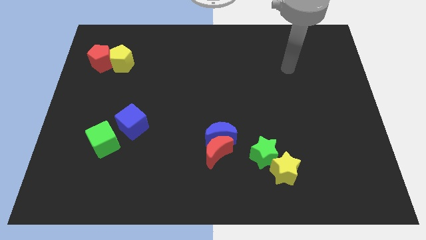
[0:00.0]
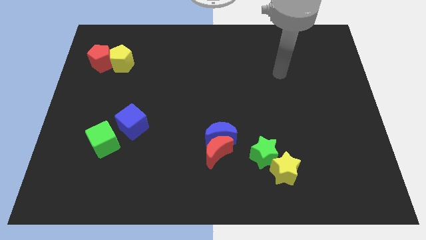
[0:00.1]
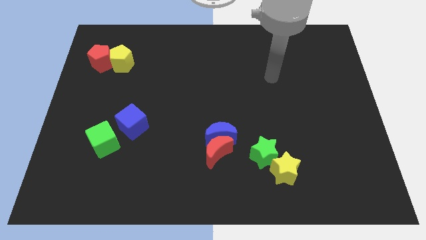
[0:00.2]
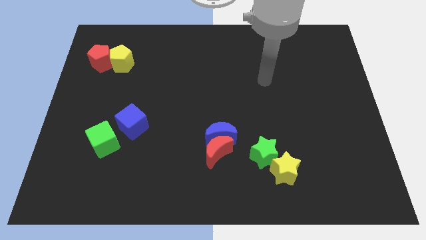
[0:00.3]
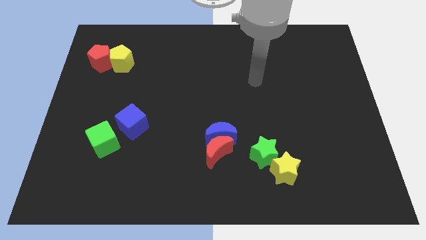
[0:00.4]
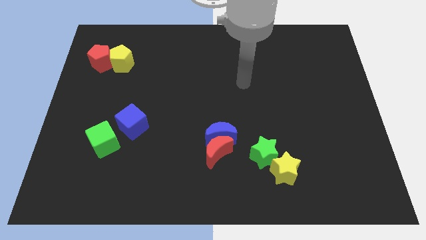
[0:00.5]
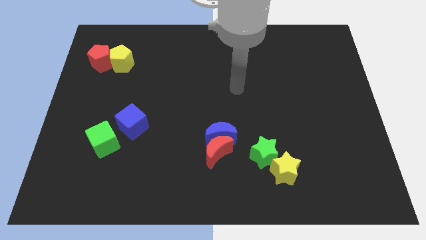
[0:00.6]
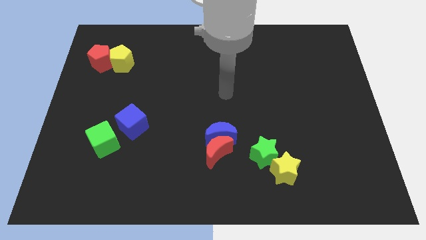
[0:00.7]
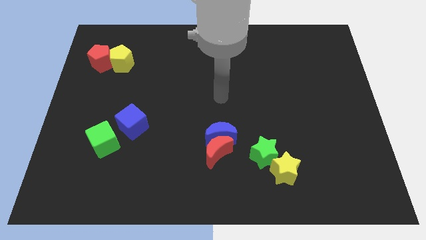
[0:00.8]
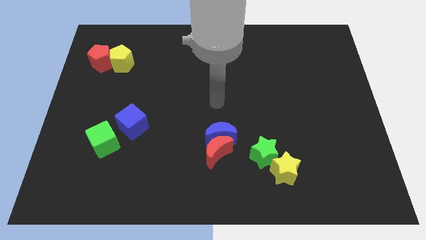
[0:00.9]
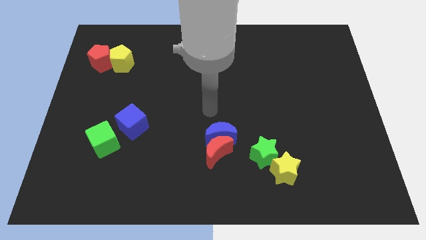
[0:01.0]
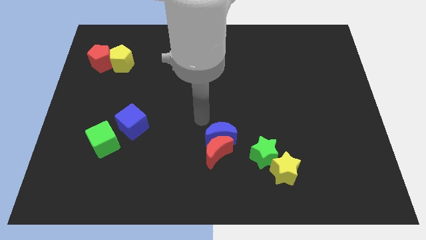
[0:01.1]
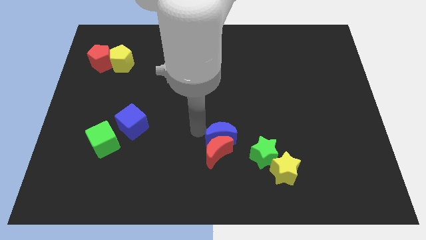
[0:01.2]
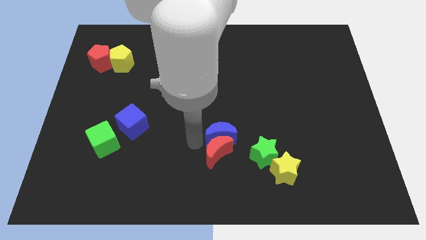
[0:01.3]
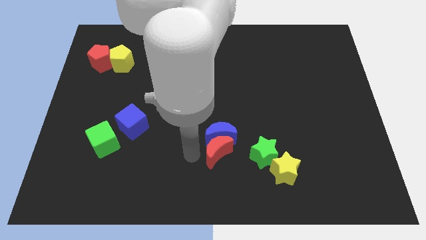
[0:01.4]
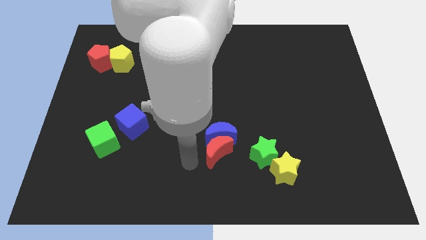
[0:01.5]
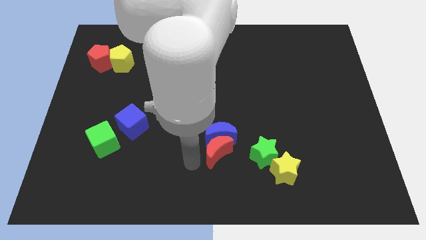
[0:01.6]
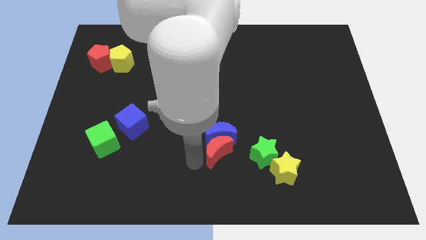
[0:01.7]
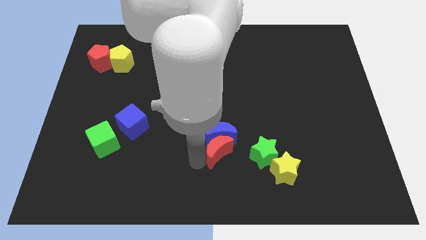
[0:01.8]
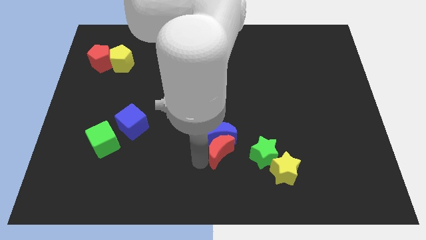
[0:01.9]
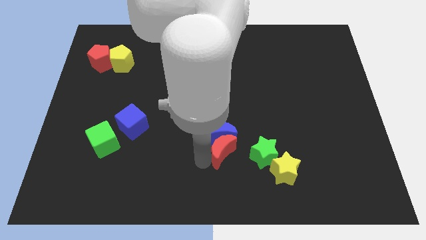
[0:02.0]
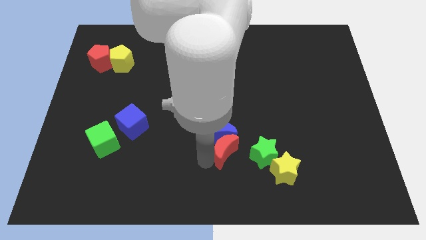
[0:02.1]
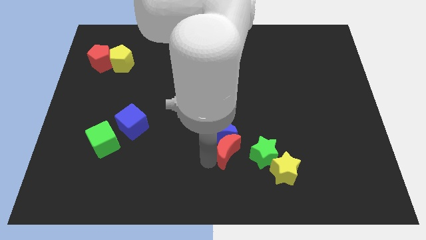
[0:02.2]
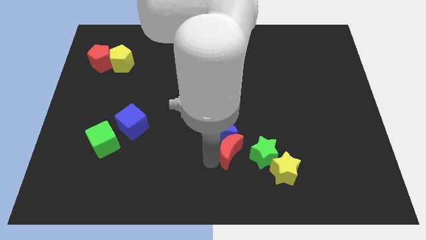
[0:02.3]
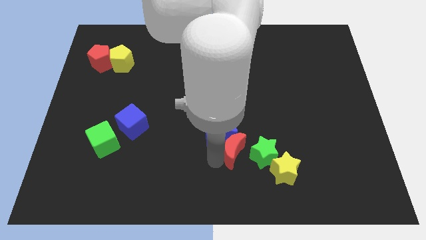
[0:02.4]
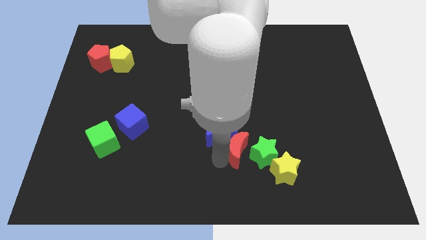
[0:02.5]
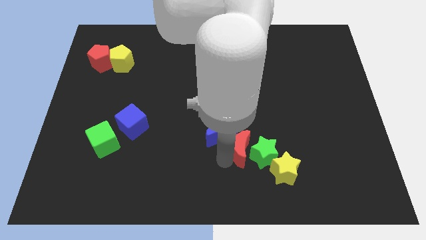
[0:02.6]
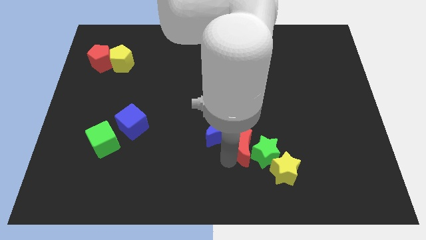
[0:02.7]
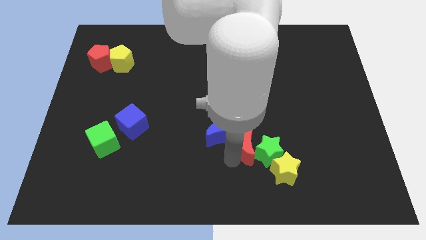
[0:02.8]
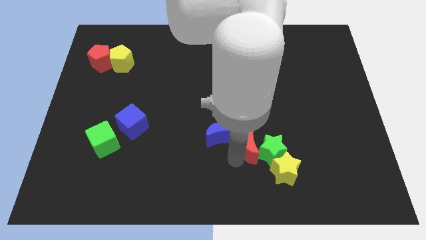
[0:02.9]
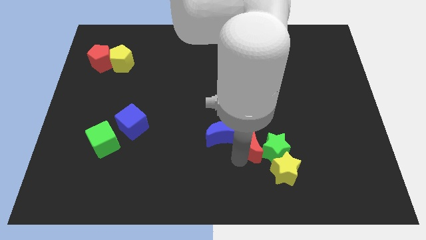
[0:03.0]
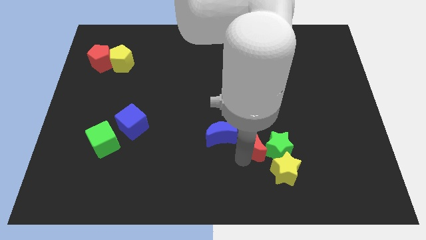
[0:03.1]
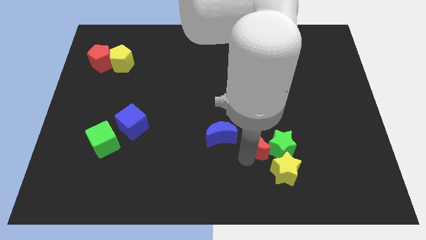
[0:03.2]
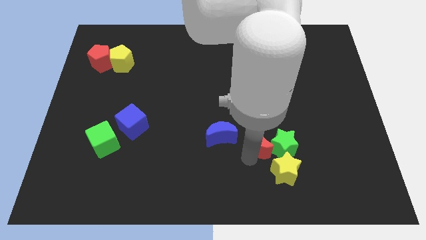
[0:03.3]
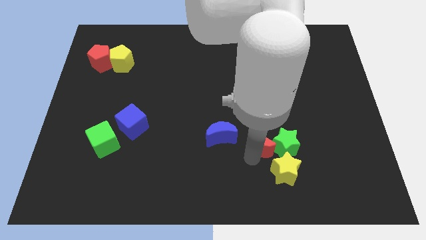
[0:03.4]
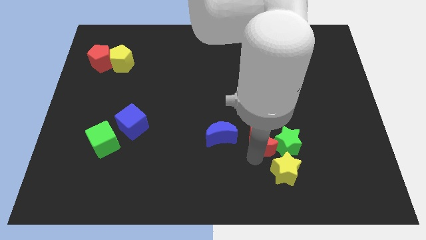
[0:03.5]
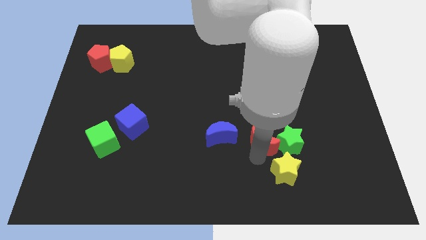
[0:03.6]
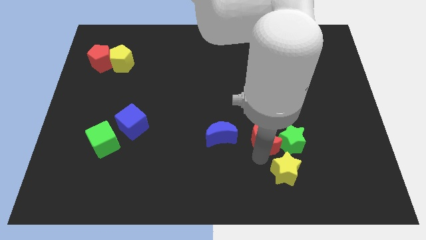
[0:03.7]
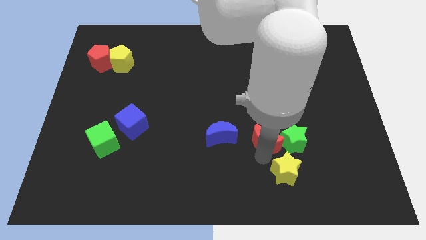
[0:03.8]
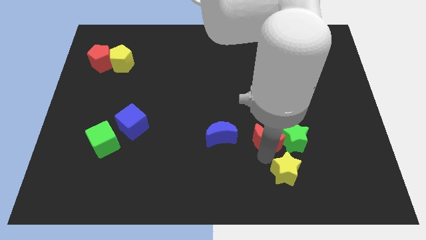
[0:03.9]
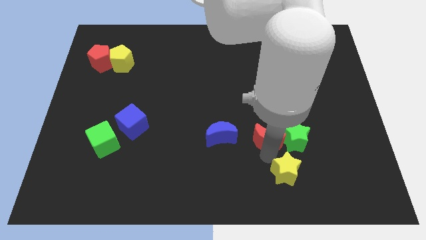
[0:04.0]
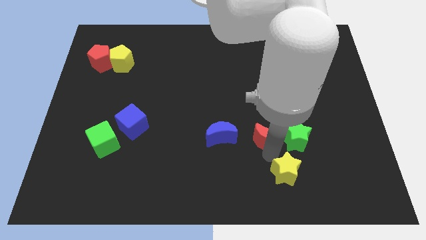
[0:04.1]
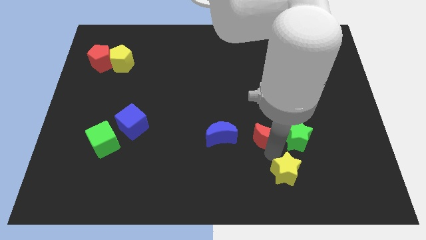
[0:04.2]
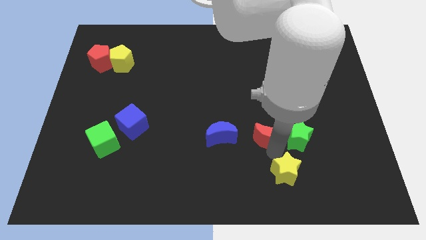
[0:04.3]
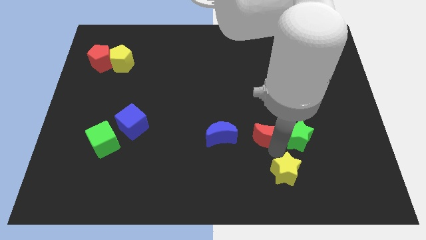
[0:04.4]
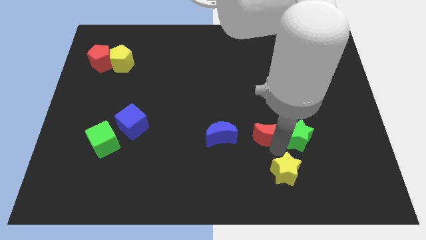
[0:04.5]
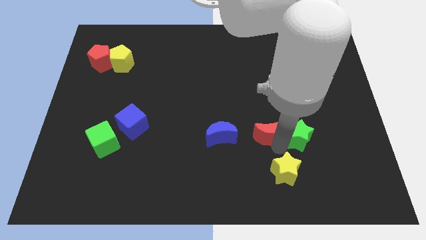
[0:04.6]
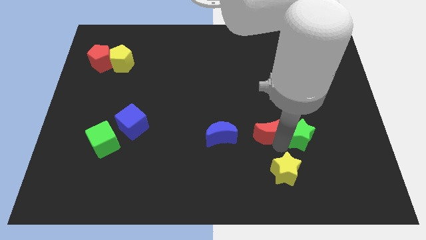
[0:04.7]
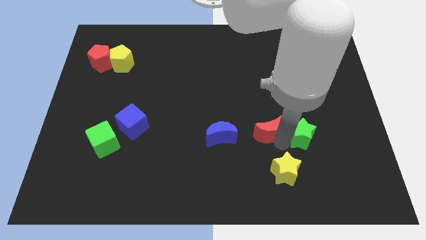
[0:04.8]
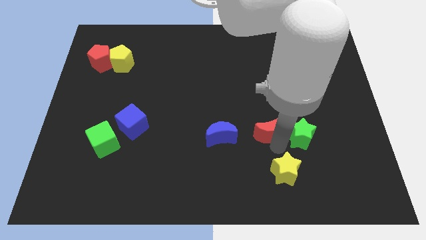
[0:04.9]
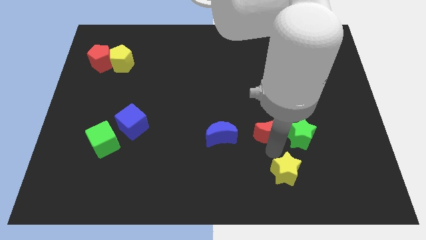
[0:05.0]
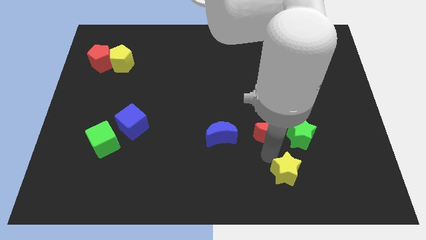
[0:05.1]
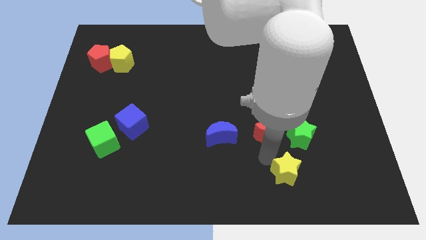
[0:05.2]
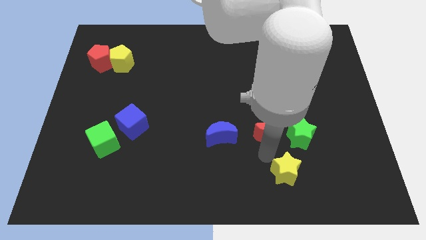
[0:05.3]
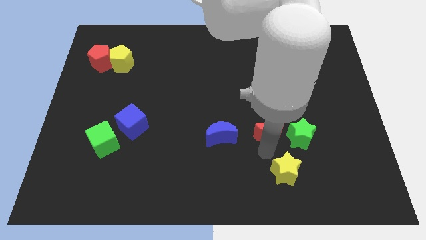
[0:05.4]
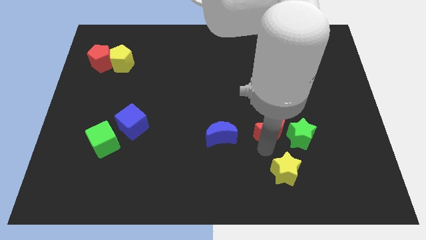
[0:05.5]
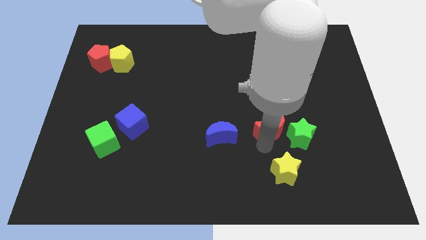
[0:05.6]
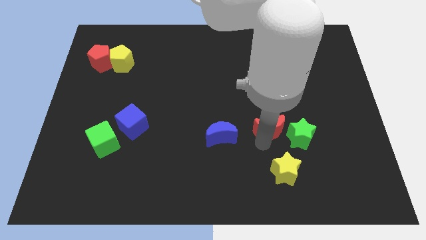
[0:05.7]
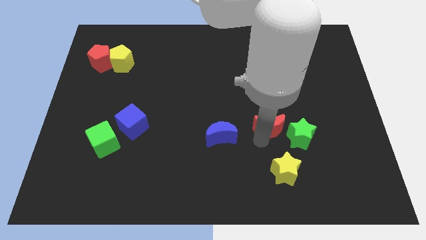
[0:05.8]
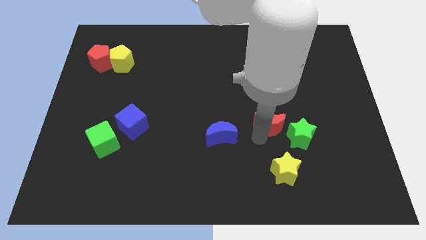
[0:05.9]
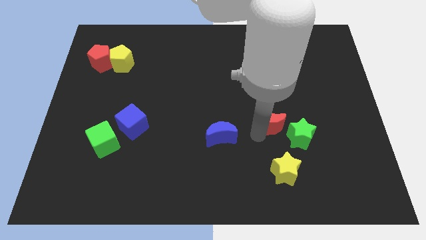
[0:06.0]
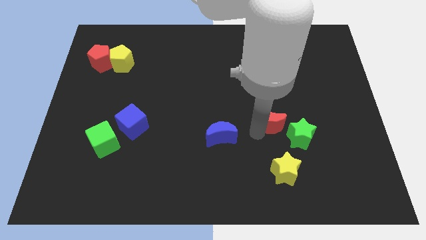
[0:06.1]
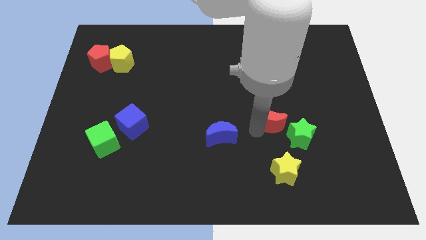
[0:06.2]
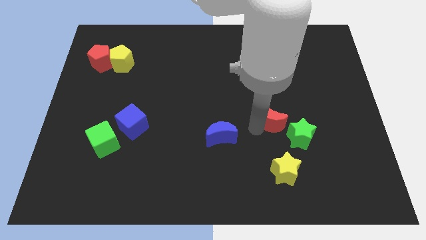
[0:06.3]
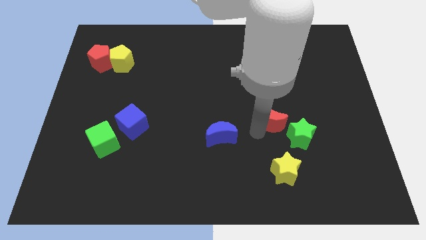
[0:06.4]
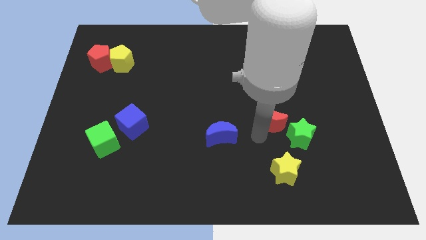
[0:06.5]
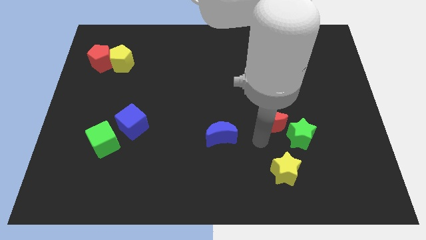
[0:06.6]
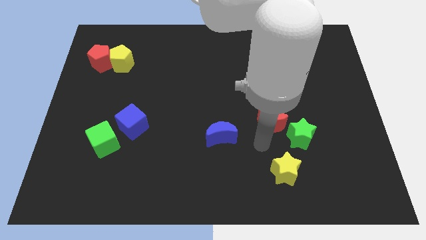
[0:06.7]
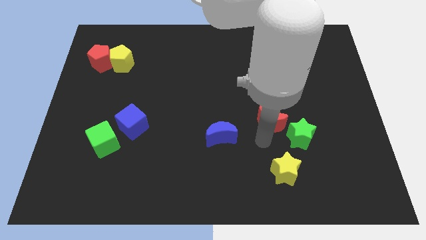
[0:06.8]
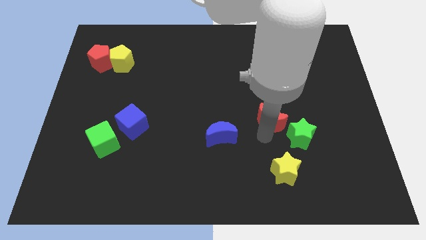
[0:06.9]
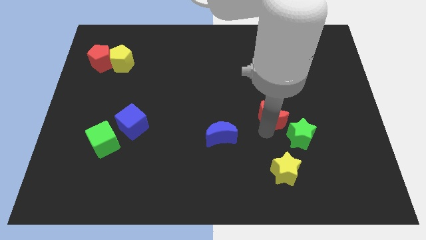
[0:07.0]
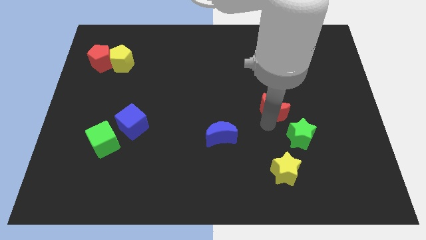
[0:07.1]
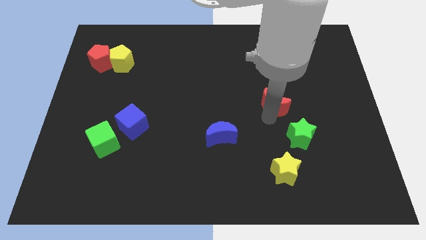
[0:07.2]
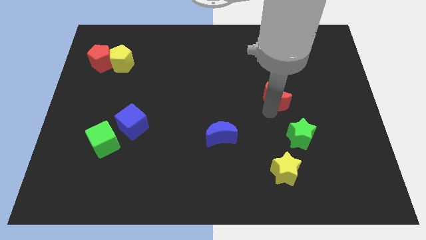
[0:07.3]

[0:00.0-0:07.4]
slide the red moon upwards and to the right

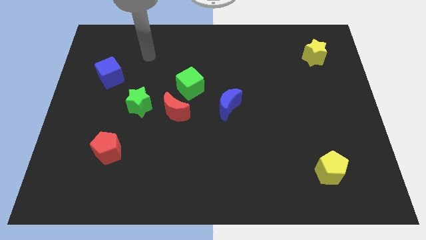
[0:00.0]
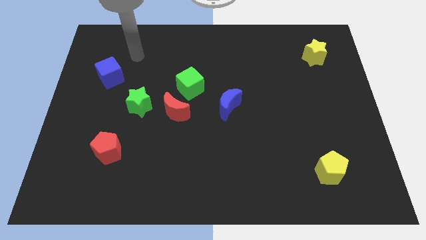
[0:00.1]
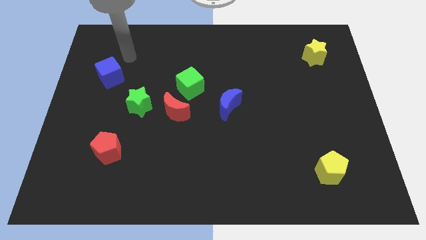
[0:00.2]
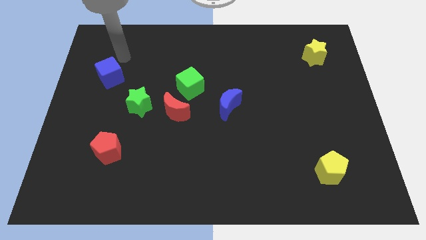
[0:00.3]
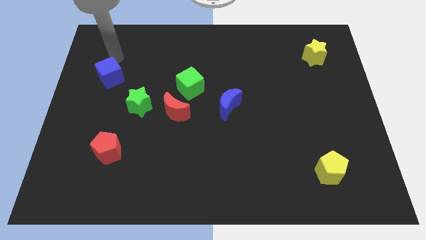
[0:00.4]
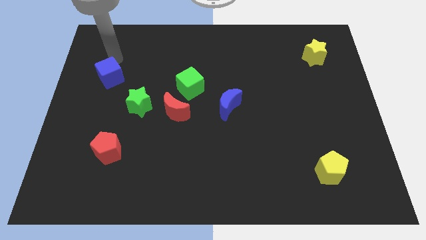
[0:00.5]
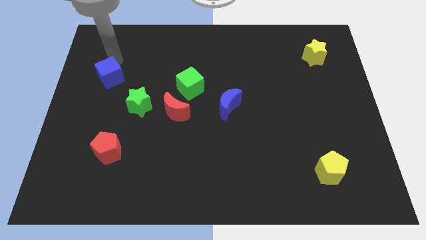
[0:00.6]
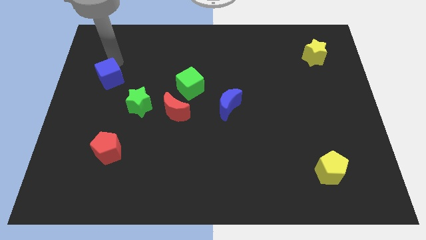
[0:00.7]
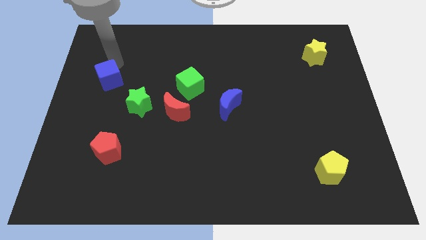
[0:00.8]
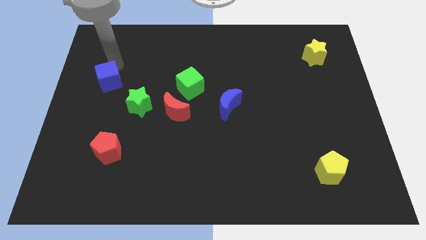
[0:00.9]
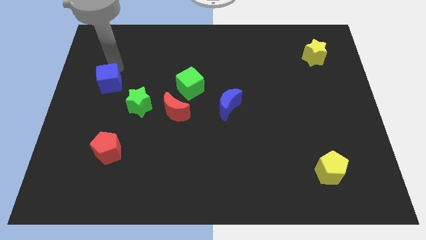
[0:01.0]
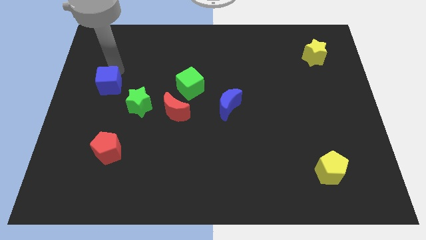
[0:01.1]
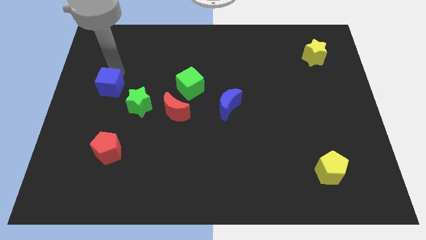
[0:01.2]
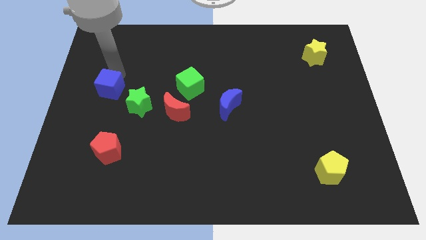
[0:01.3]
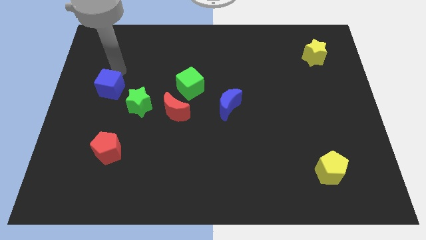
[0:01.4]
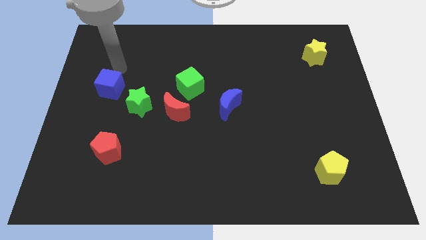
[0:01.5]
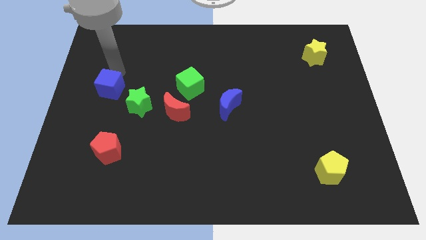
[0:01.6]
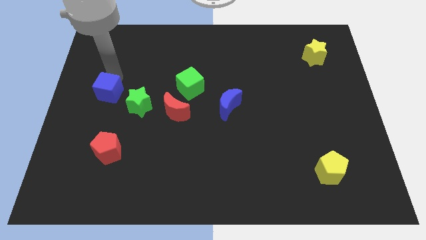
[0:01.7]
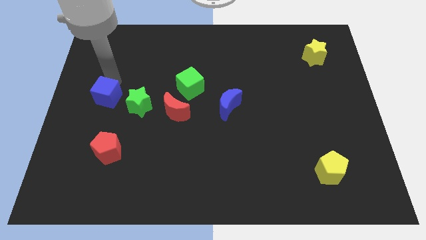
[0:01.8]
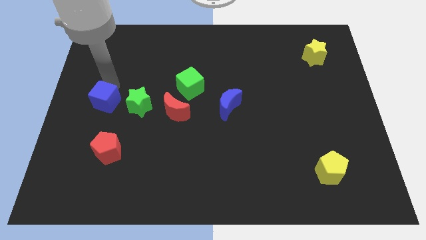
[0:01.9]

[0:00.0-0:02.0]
slightly move the blue cube down
